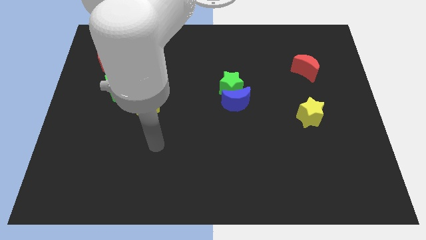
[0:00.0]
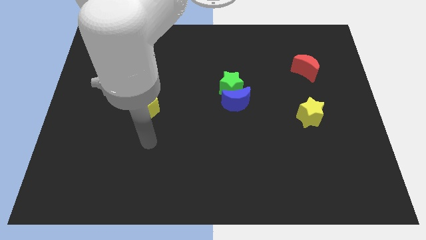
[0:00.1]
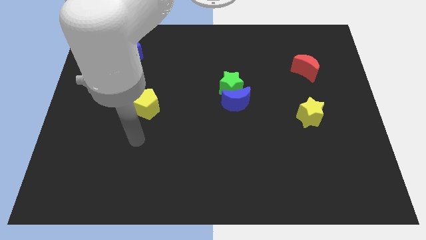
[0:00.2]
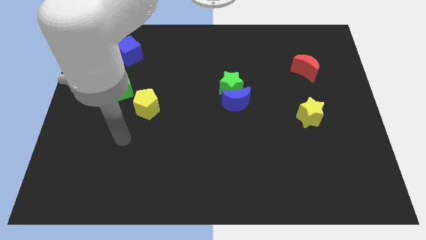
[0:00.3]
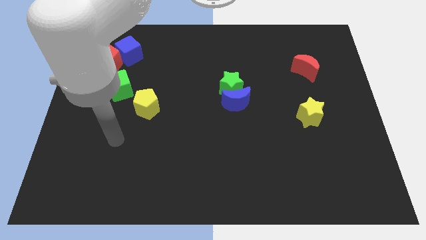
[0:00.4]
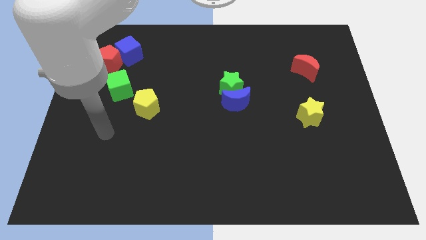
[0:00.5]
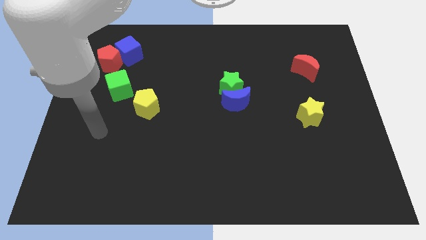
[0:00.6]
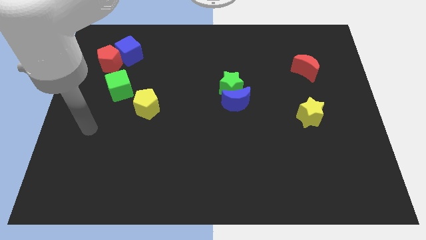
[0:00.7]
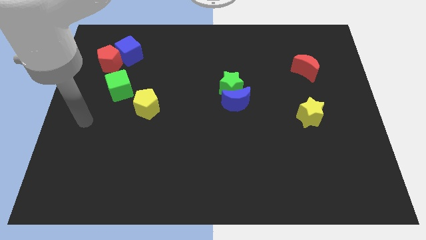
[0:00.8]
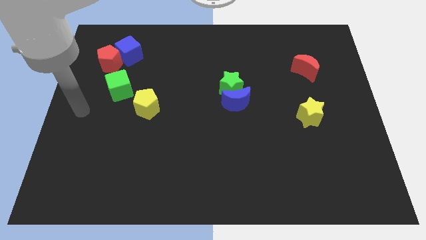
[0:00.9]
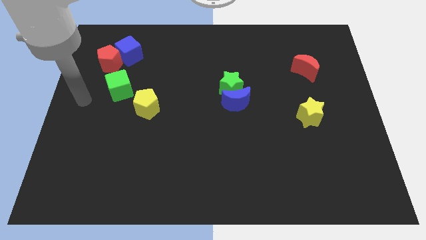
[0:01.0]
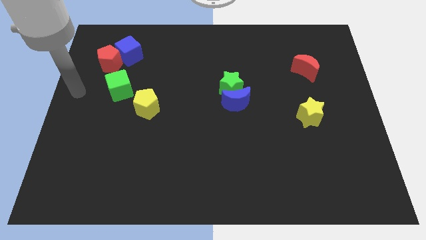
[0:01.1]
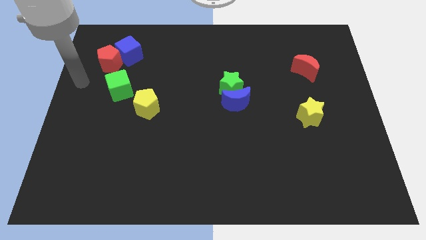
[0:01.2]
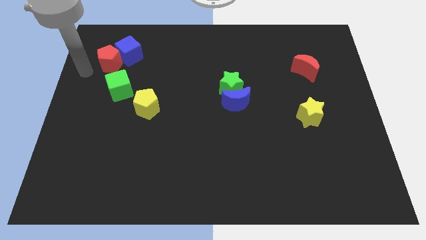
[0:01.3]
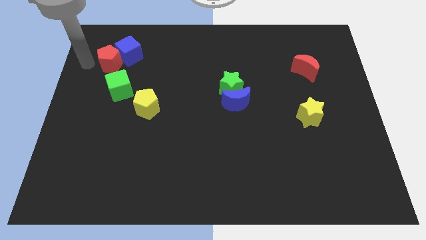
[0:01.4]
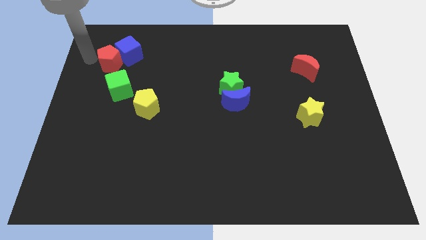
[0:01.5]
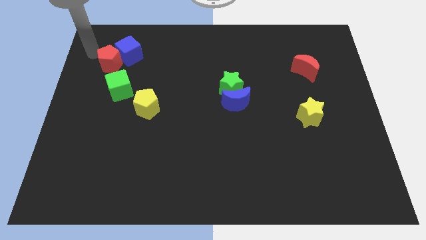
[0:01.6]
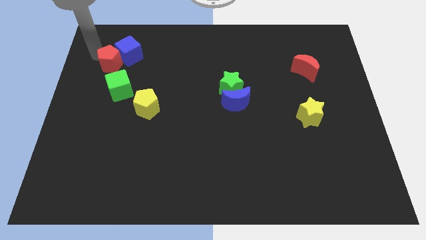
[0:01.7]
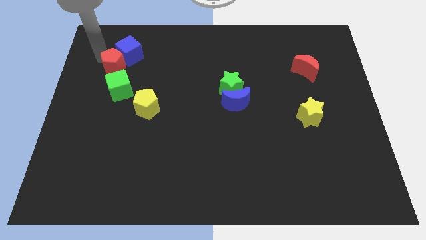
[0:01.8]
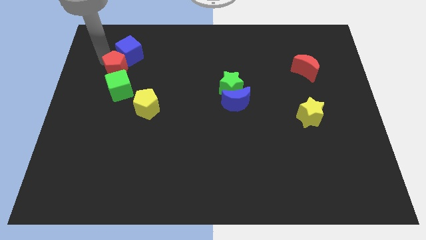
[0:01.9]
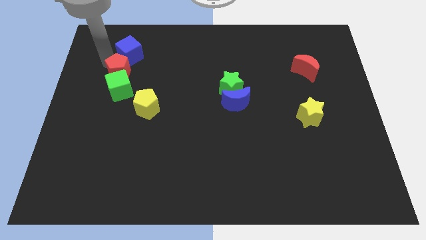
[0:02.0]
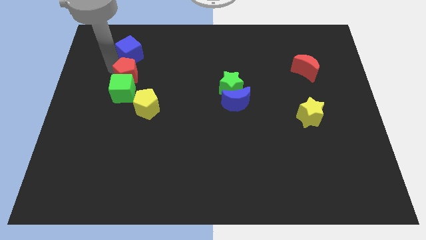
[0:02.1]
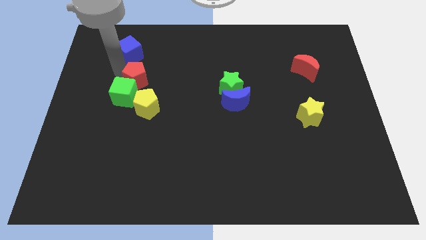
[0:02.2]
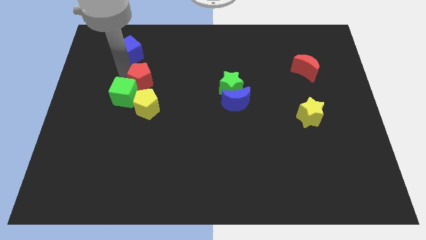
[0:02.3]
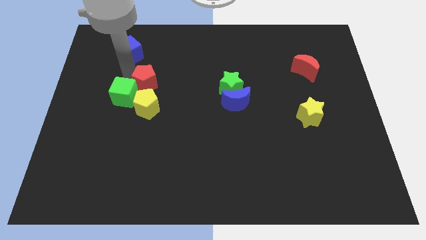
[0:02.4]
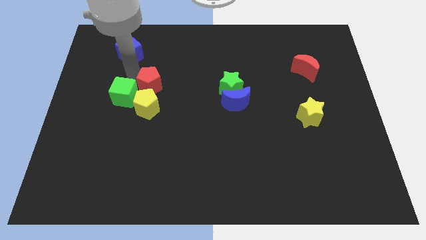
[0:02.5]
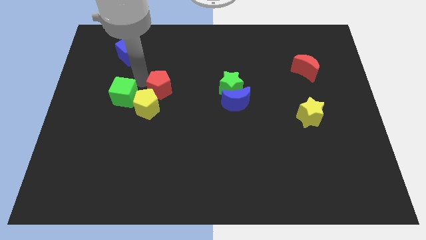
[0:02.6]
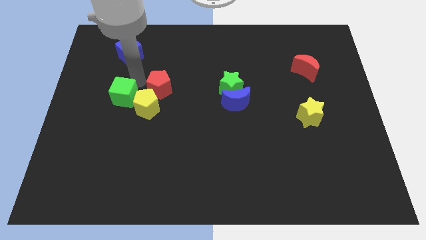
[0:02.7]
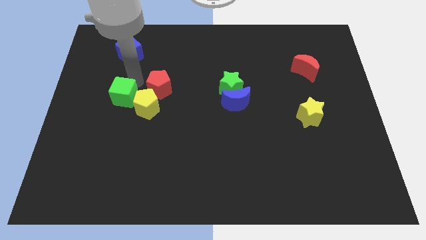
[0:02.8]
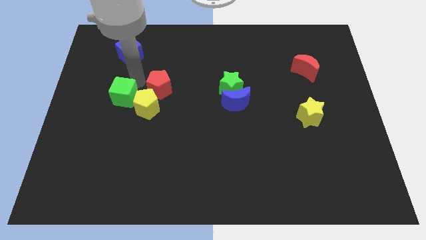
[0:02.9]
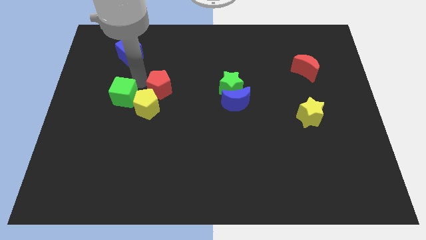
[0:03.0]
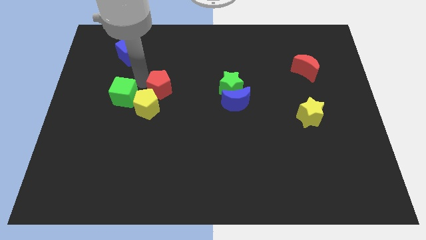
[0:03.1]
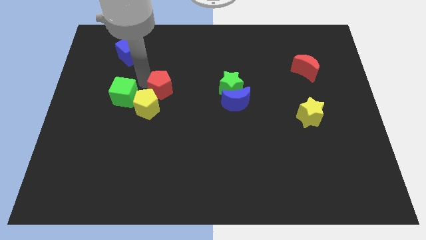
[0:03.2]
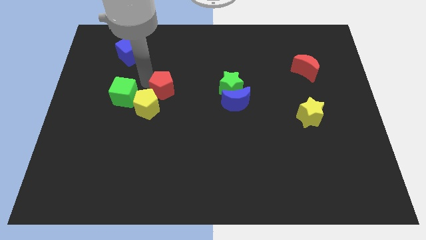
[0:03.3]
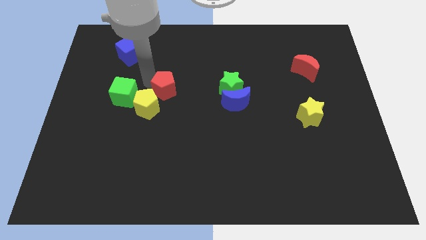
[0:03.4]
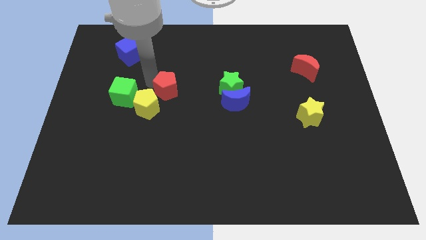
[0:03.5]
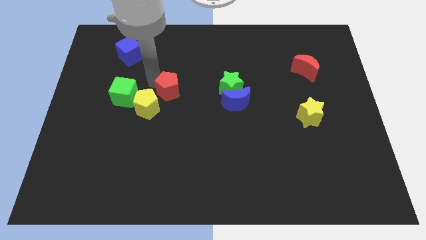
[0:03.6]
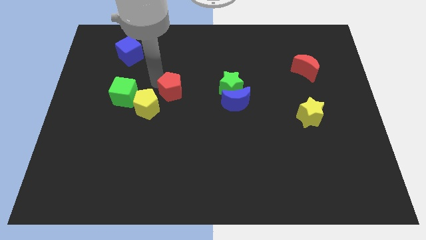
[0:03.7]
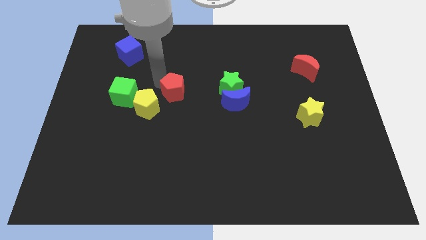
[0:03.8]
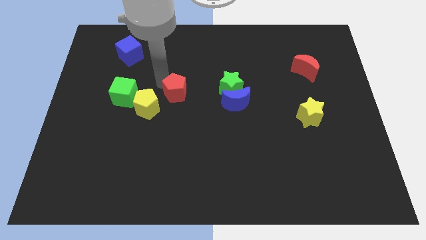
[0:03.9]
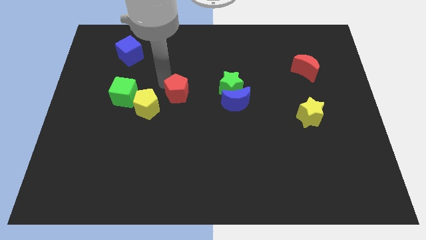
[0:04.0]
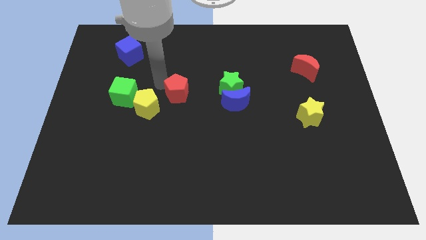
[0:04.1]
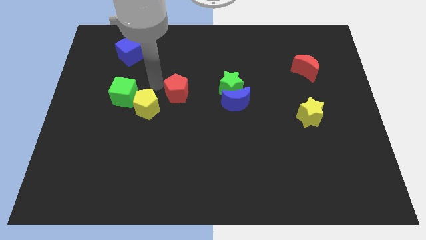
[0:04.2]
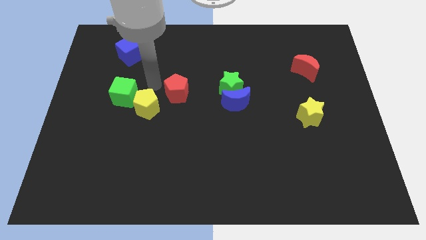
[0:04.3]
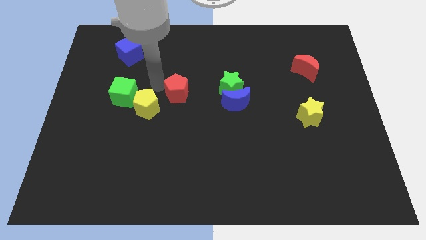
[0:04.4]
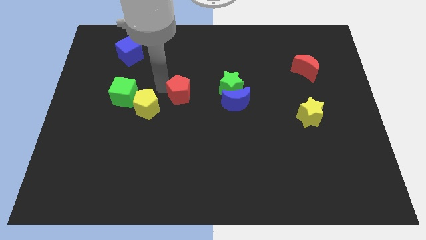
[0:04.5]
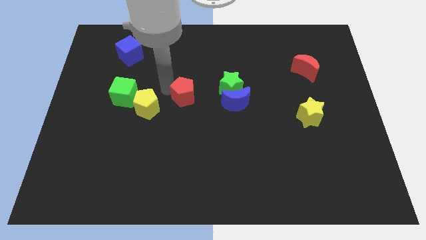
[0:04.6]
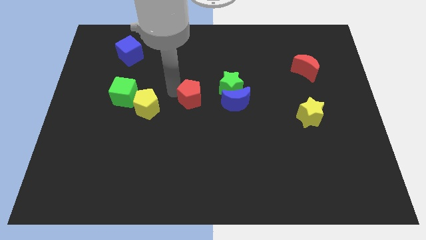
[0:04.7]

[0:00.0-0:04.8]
put the red pentagon to the bottom left side of the green star

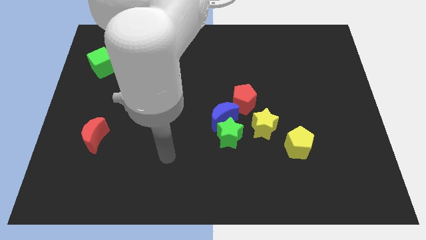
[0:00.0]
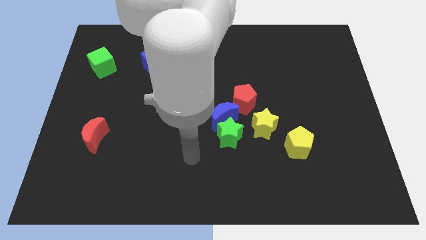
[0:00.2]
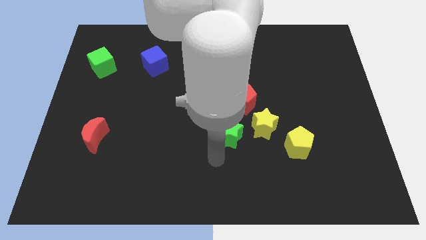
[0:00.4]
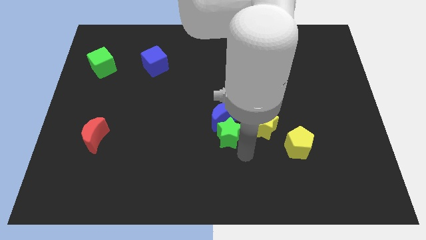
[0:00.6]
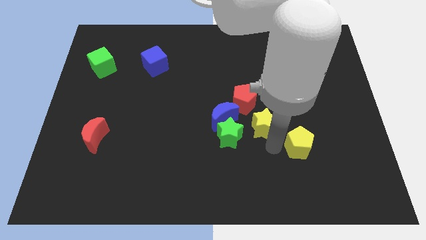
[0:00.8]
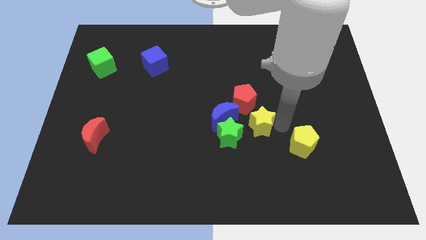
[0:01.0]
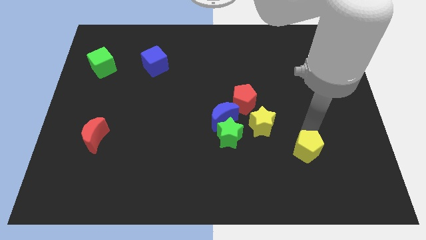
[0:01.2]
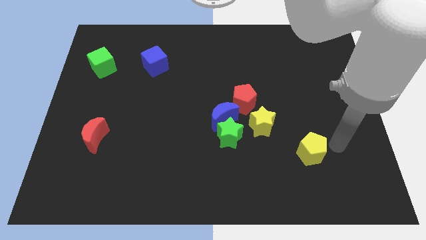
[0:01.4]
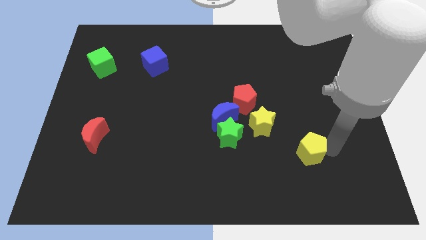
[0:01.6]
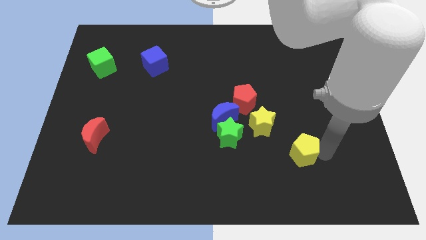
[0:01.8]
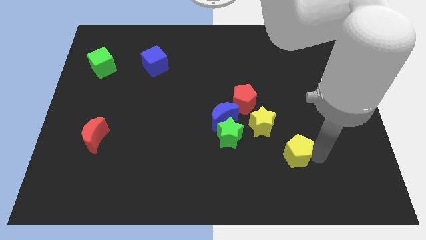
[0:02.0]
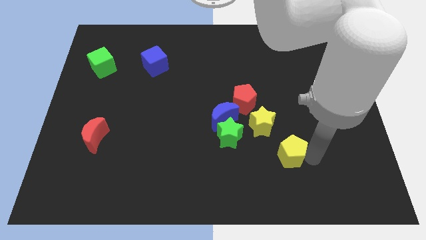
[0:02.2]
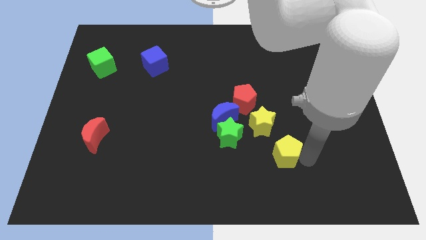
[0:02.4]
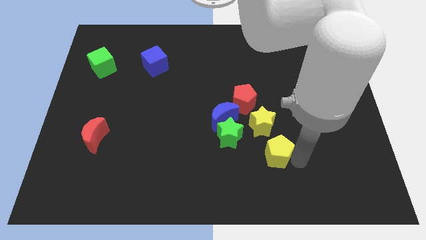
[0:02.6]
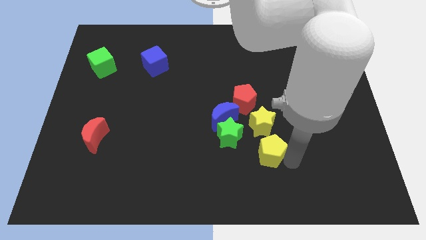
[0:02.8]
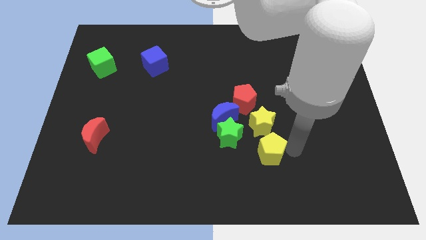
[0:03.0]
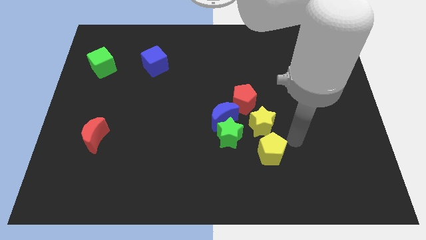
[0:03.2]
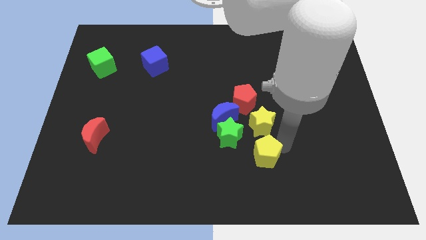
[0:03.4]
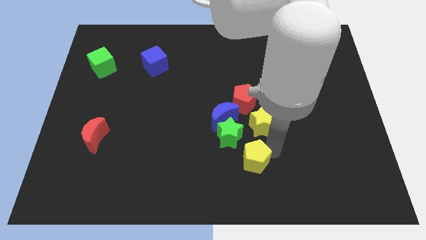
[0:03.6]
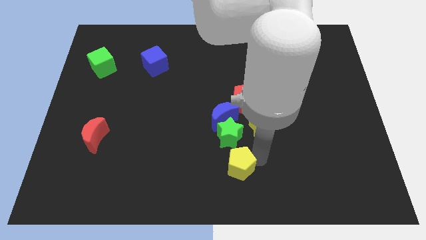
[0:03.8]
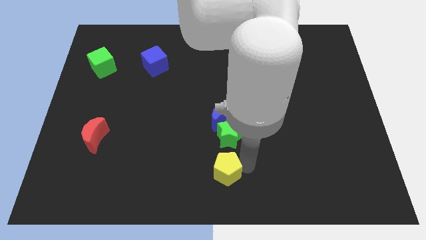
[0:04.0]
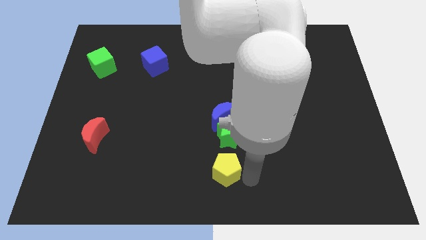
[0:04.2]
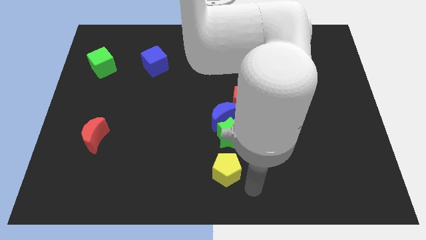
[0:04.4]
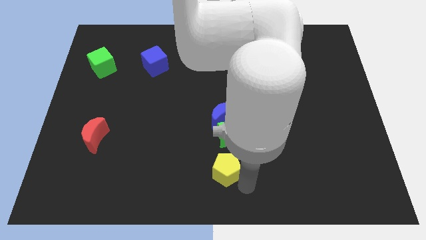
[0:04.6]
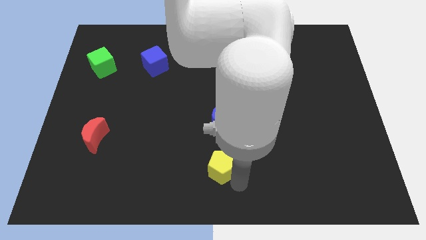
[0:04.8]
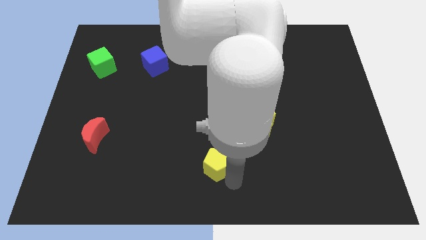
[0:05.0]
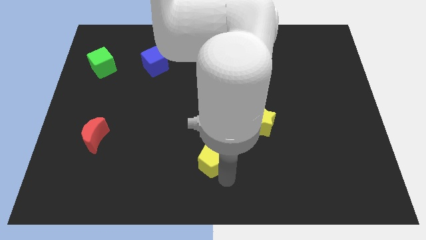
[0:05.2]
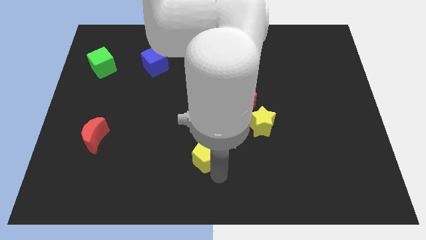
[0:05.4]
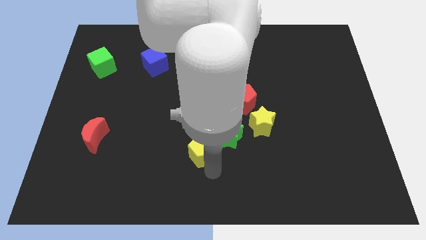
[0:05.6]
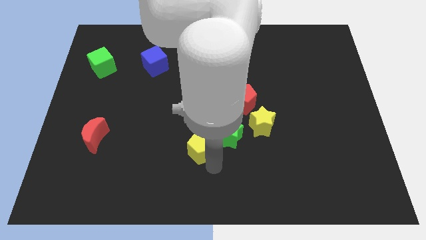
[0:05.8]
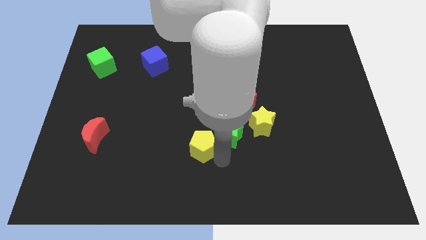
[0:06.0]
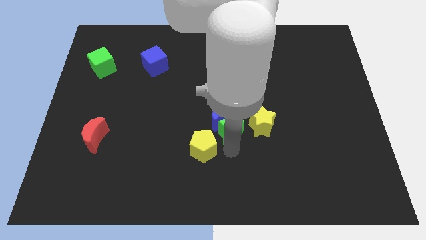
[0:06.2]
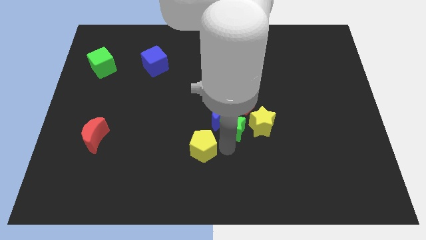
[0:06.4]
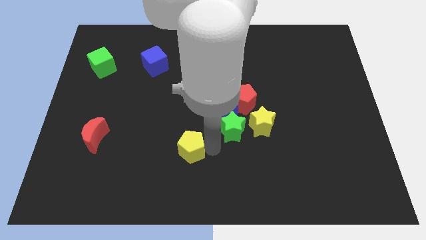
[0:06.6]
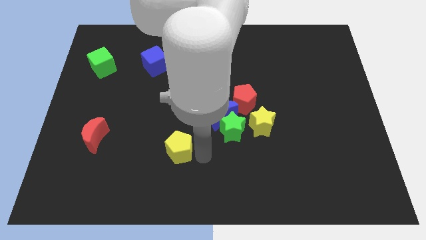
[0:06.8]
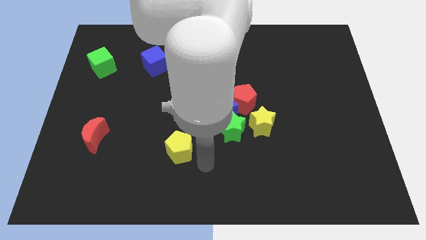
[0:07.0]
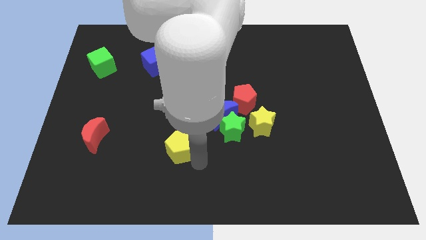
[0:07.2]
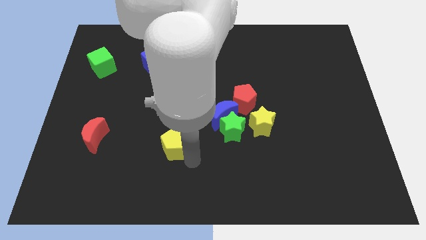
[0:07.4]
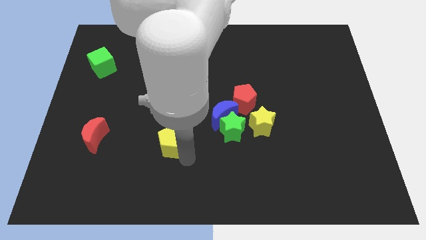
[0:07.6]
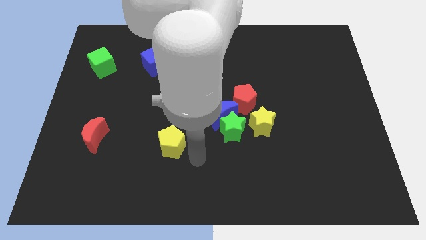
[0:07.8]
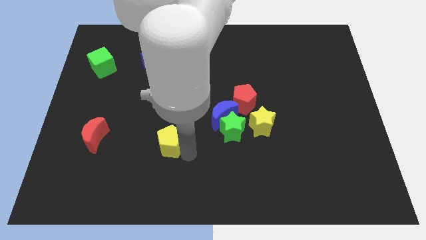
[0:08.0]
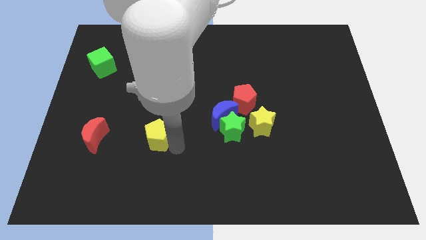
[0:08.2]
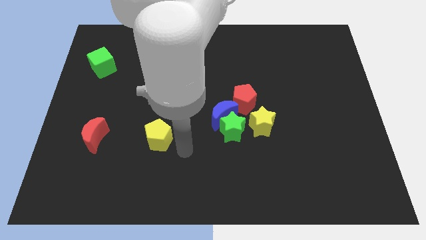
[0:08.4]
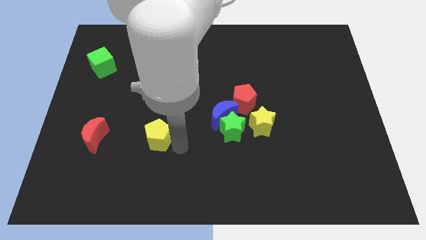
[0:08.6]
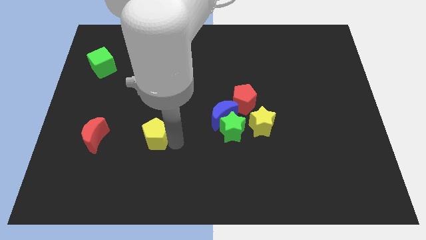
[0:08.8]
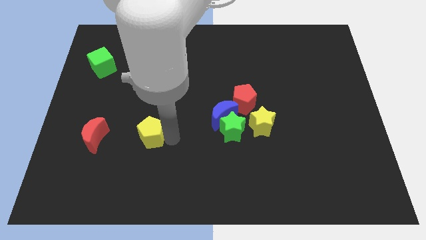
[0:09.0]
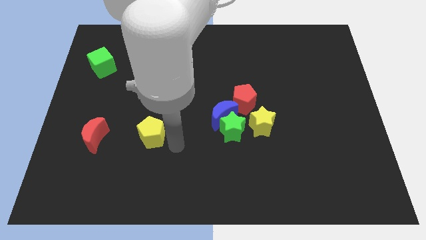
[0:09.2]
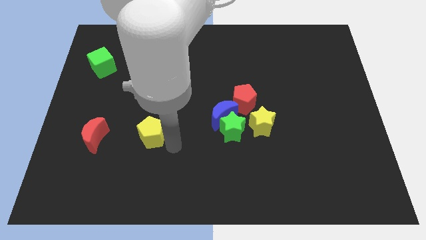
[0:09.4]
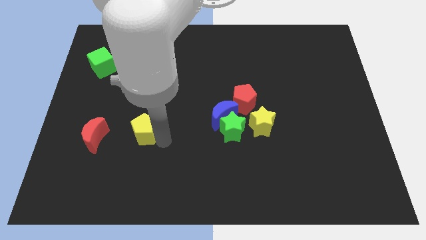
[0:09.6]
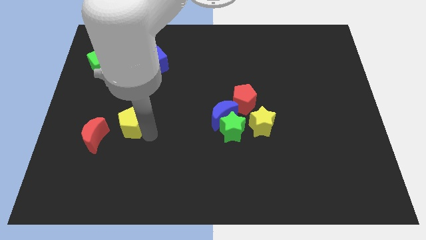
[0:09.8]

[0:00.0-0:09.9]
push the yellow pentagon diagonally up and to the right of the red moon
